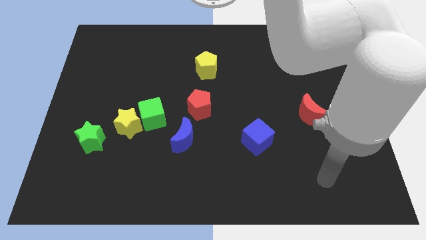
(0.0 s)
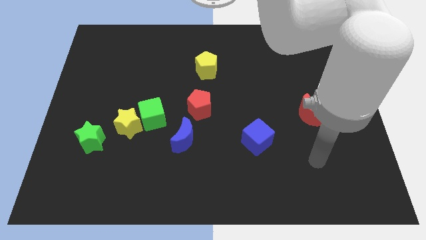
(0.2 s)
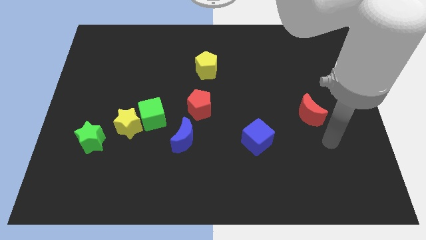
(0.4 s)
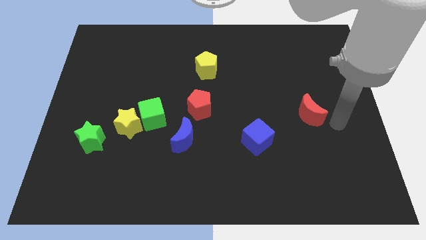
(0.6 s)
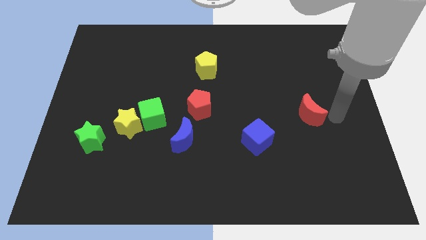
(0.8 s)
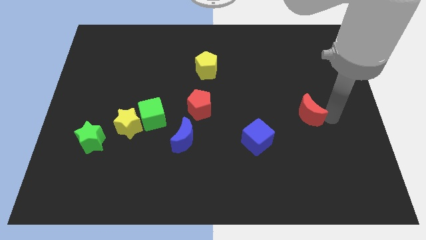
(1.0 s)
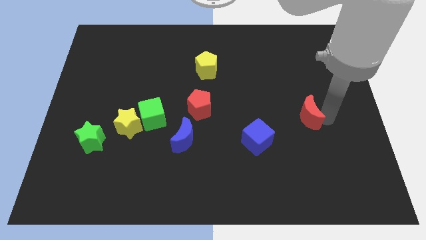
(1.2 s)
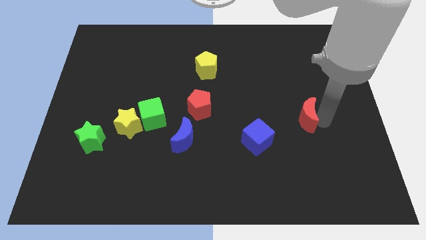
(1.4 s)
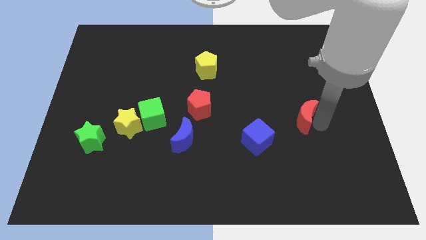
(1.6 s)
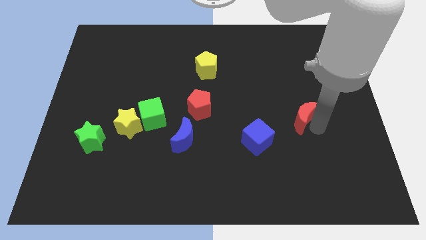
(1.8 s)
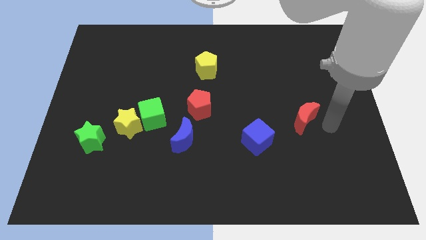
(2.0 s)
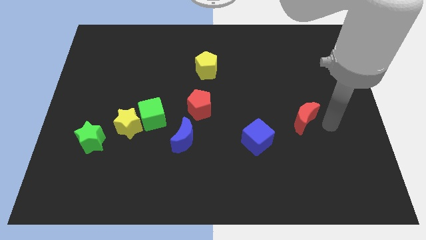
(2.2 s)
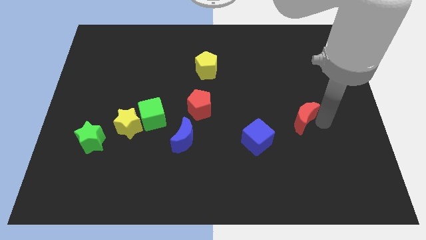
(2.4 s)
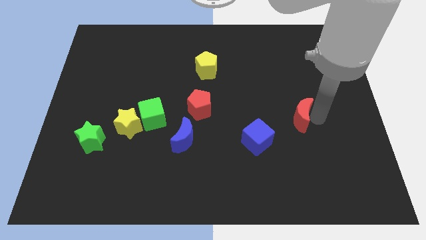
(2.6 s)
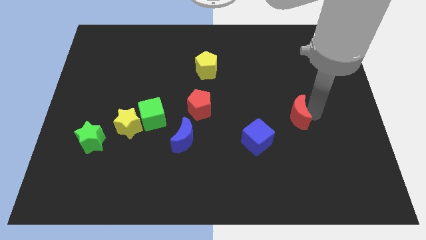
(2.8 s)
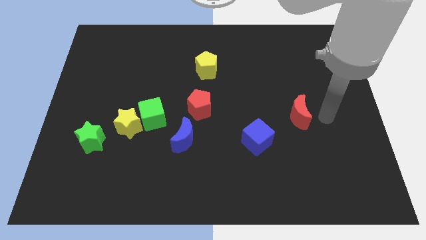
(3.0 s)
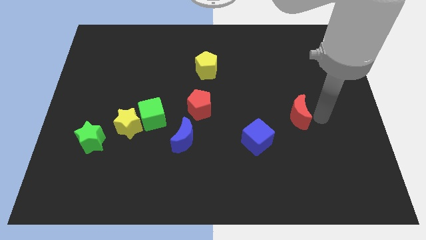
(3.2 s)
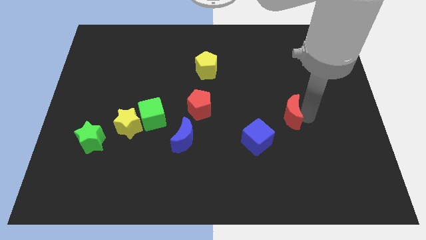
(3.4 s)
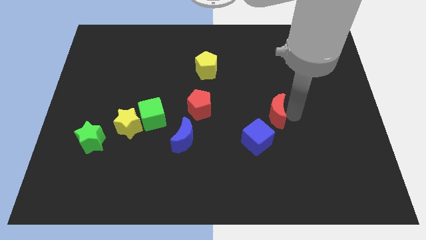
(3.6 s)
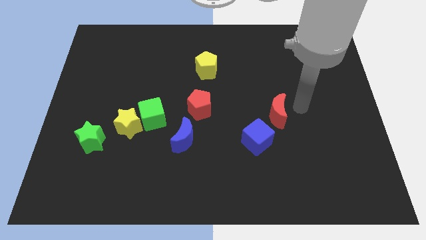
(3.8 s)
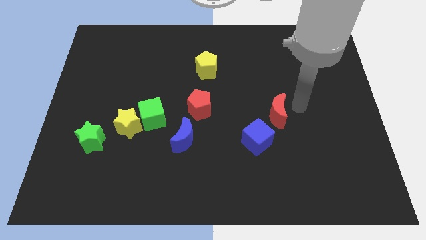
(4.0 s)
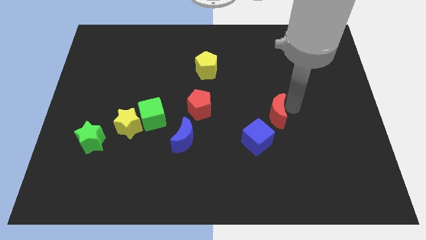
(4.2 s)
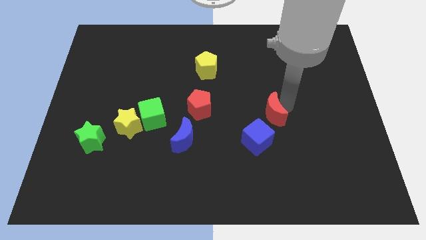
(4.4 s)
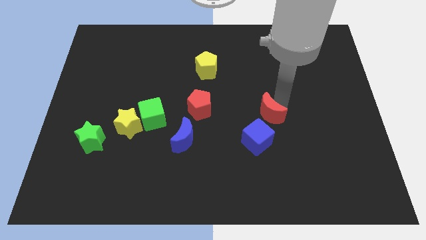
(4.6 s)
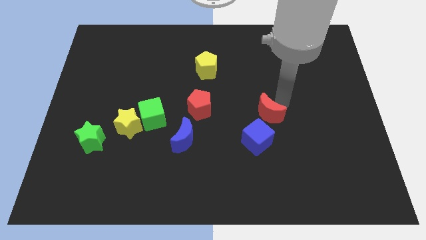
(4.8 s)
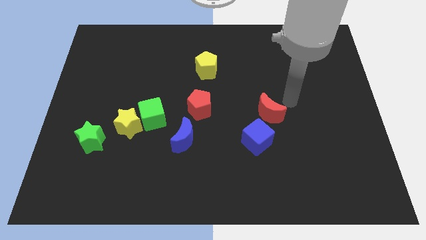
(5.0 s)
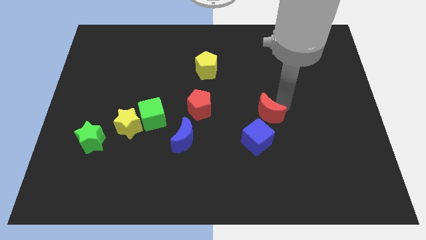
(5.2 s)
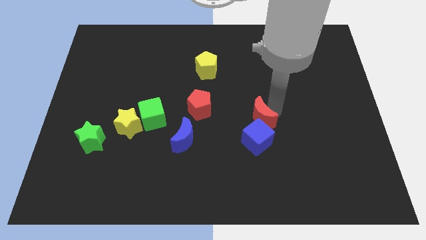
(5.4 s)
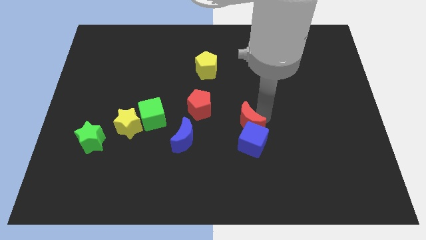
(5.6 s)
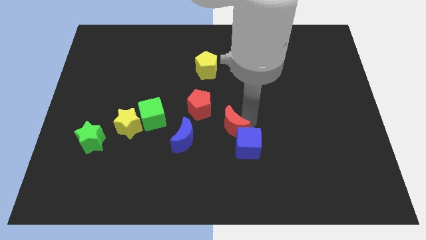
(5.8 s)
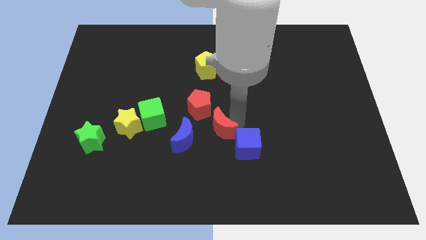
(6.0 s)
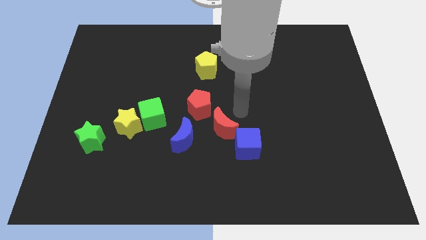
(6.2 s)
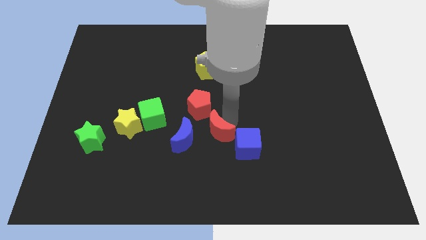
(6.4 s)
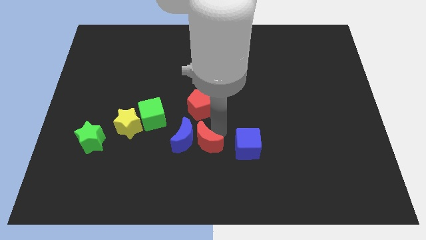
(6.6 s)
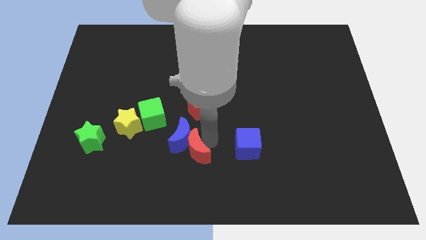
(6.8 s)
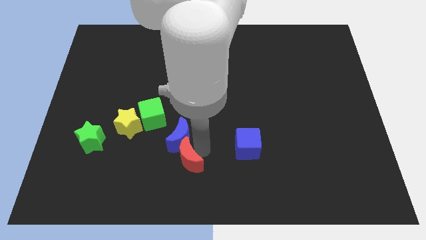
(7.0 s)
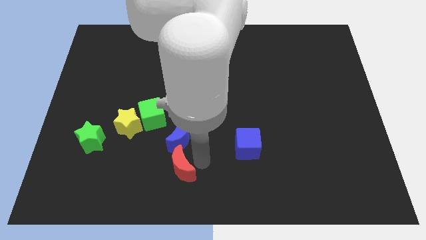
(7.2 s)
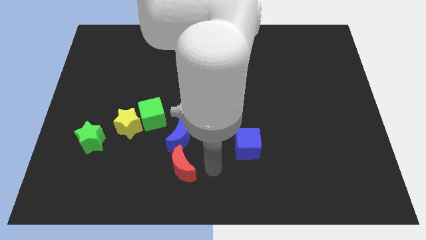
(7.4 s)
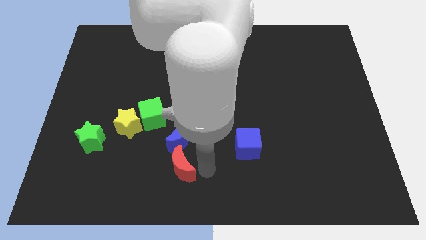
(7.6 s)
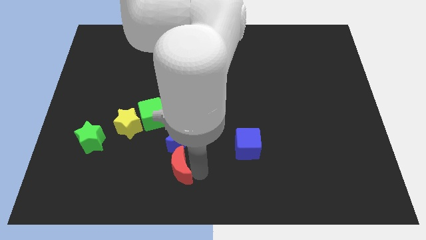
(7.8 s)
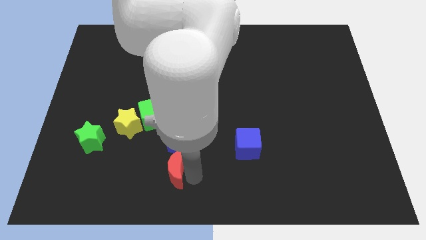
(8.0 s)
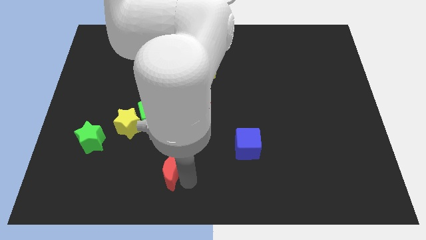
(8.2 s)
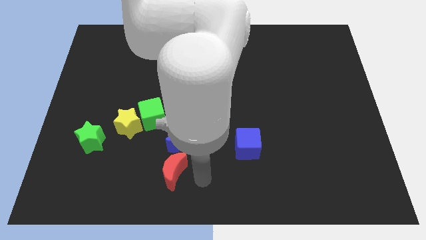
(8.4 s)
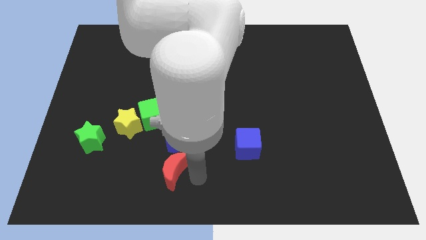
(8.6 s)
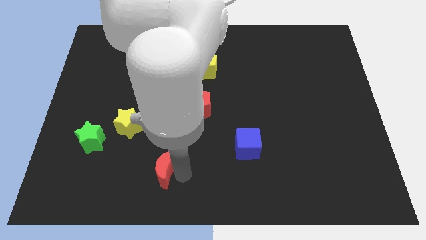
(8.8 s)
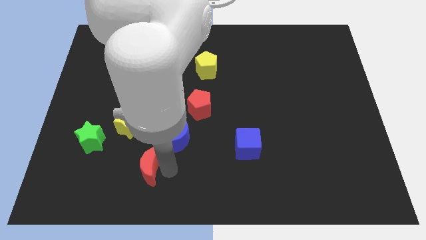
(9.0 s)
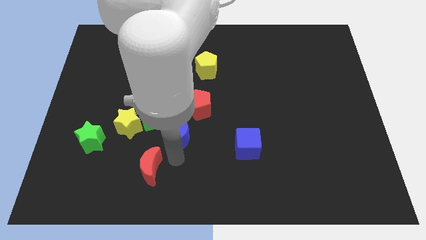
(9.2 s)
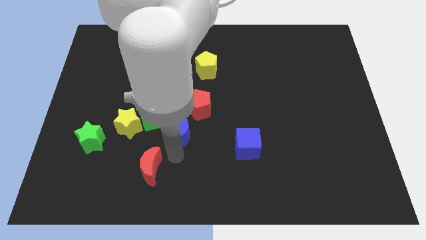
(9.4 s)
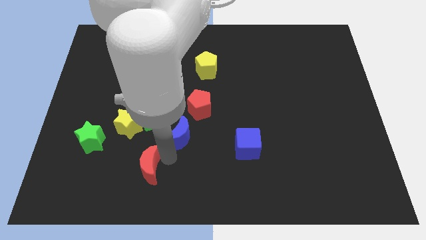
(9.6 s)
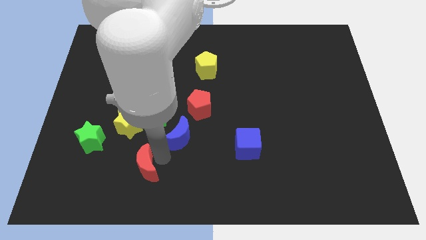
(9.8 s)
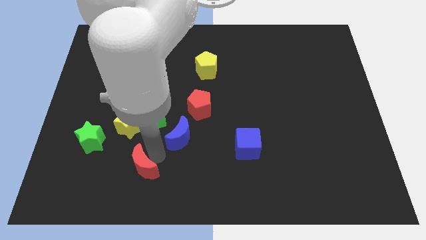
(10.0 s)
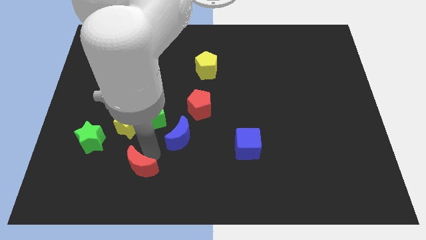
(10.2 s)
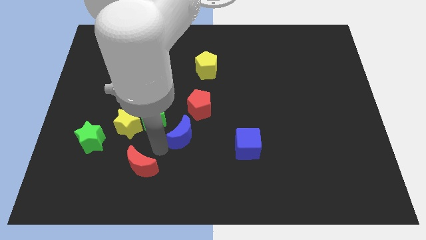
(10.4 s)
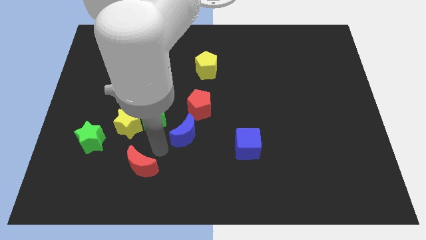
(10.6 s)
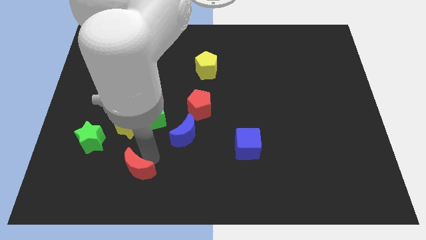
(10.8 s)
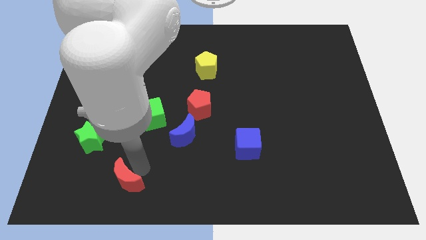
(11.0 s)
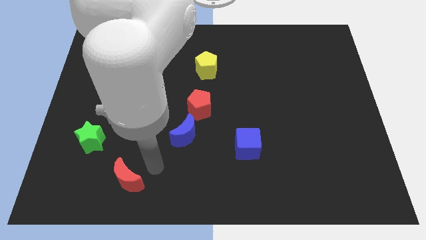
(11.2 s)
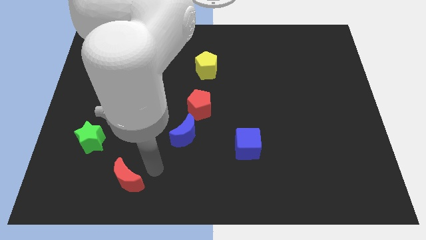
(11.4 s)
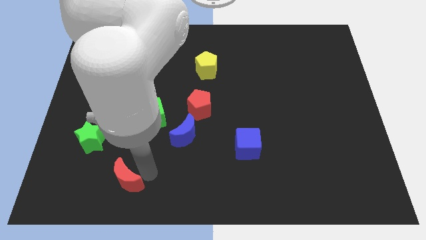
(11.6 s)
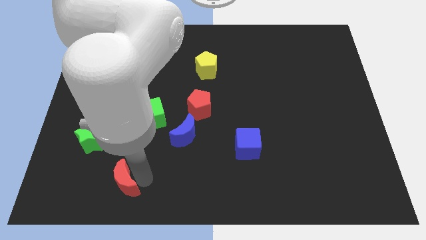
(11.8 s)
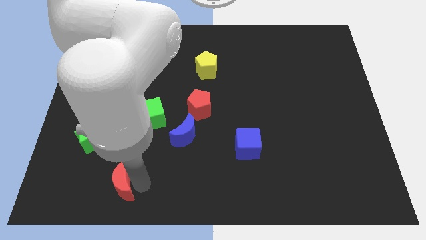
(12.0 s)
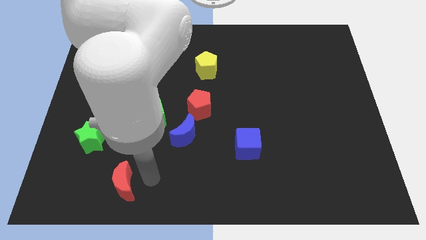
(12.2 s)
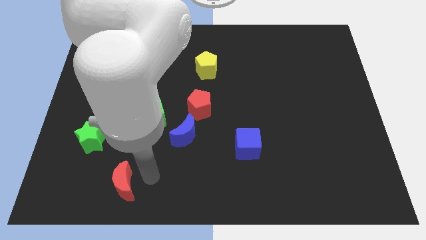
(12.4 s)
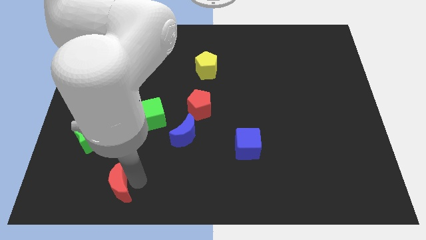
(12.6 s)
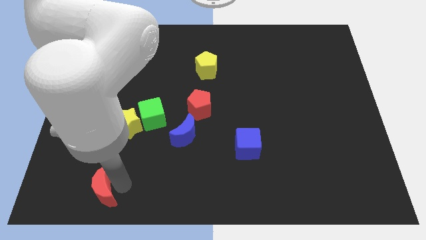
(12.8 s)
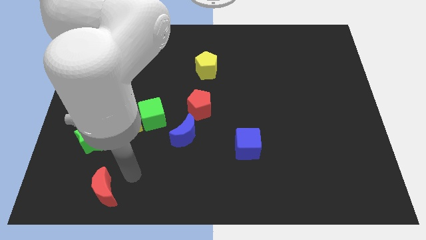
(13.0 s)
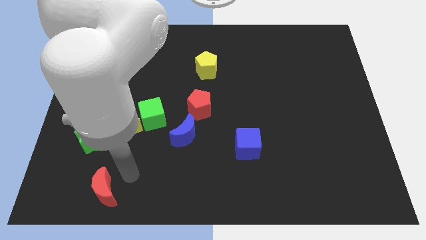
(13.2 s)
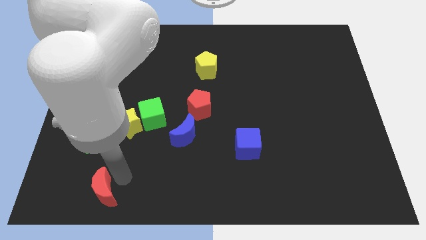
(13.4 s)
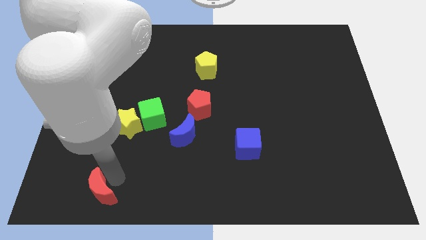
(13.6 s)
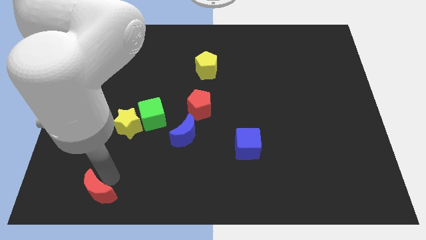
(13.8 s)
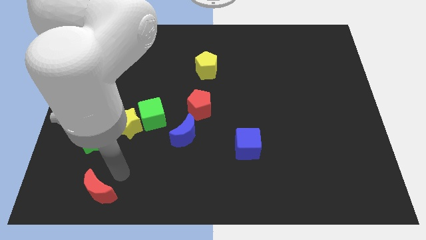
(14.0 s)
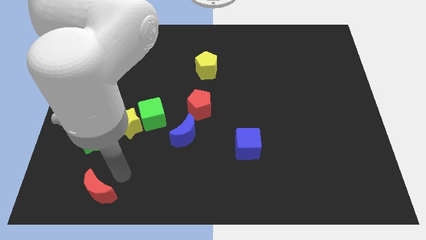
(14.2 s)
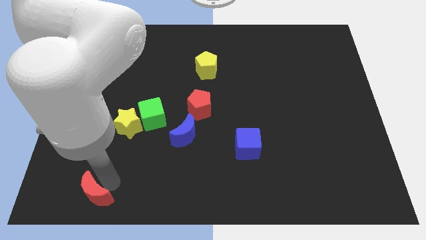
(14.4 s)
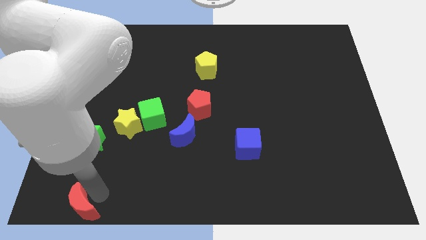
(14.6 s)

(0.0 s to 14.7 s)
slide the red moon to the bottom left

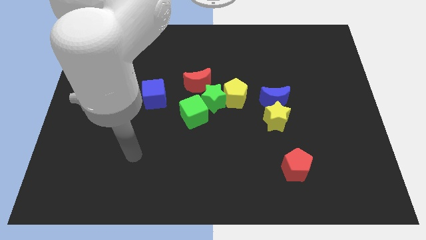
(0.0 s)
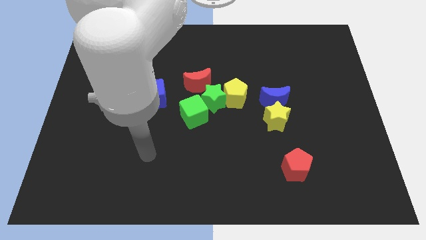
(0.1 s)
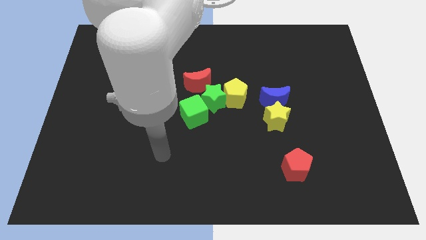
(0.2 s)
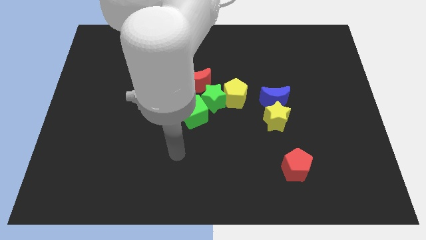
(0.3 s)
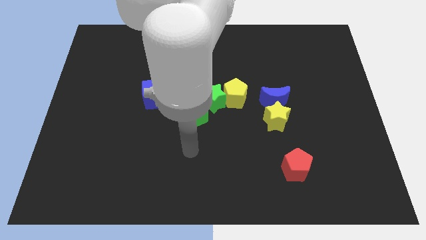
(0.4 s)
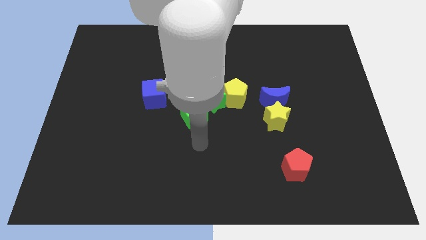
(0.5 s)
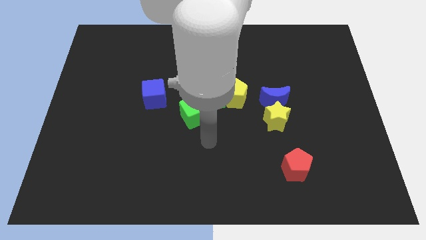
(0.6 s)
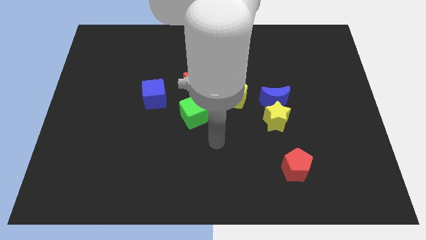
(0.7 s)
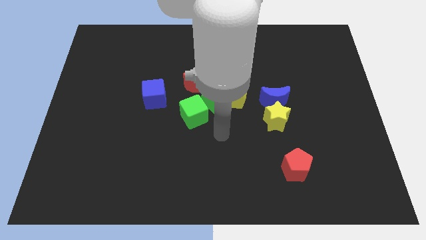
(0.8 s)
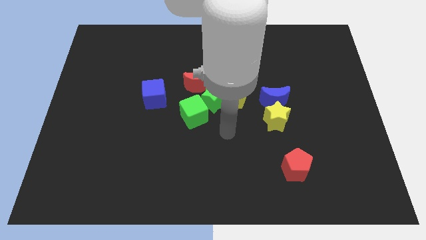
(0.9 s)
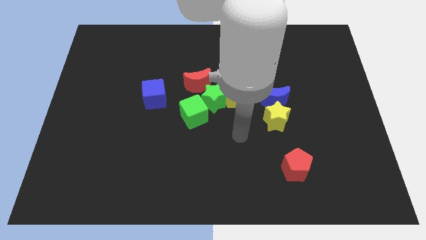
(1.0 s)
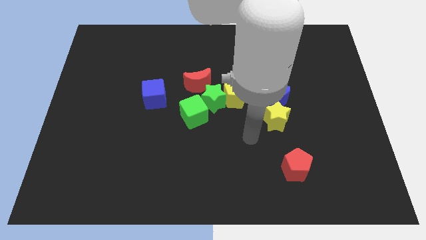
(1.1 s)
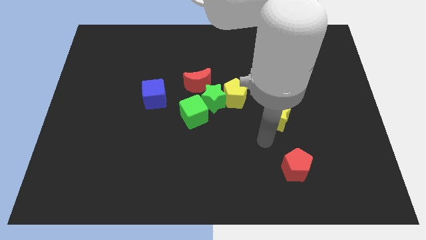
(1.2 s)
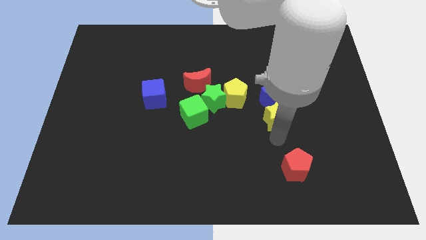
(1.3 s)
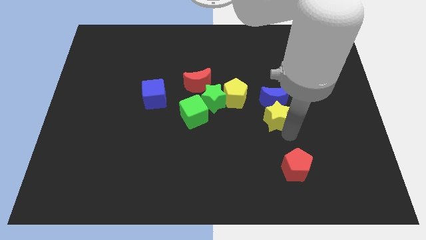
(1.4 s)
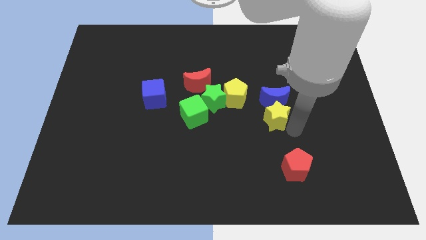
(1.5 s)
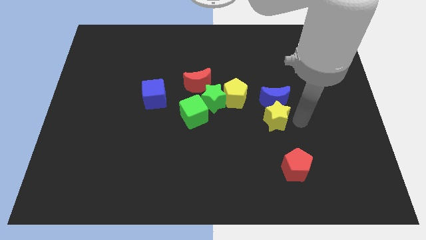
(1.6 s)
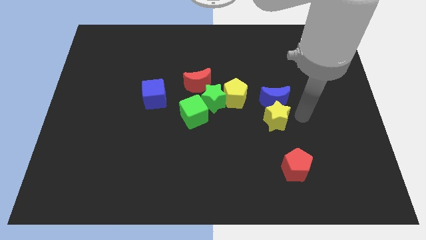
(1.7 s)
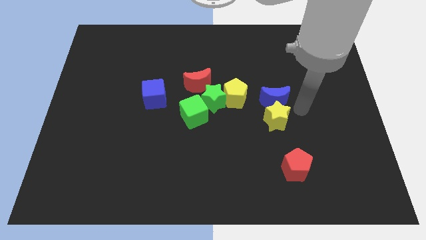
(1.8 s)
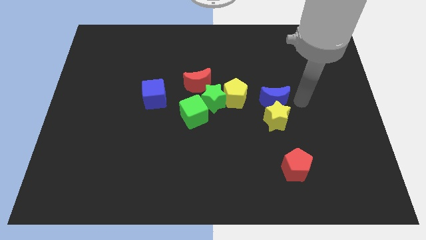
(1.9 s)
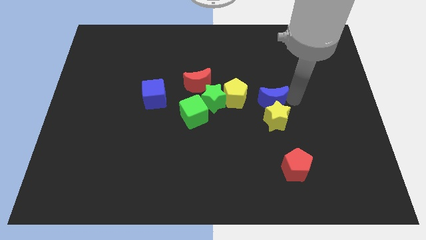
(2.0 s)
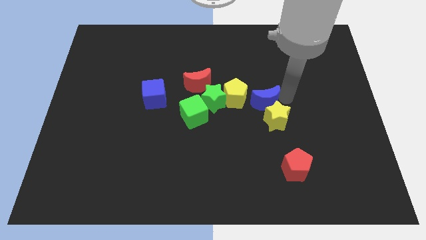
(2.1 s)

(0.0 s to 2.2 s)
slide the blue moon to the center of the board
